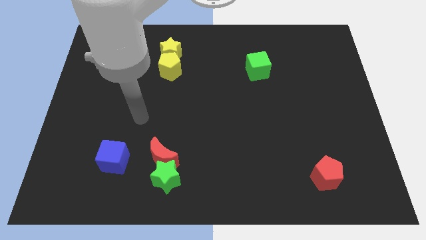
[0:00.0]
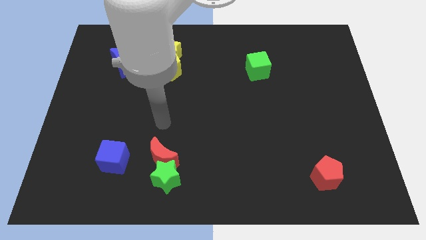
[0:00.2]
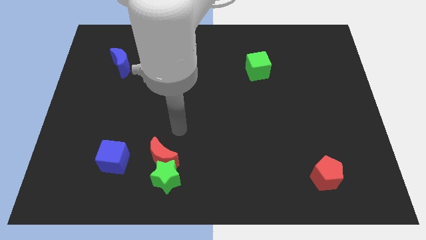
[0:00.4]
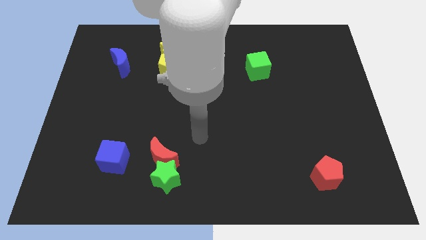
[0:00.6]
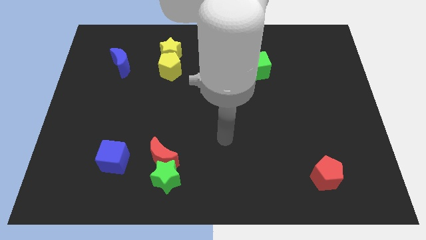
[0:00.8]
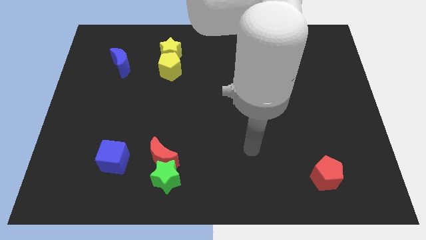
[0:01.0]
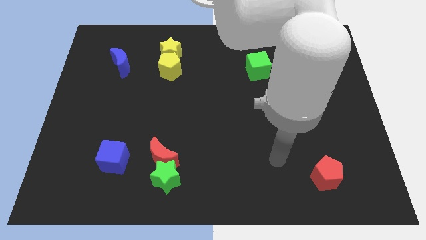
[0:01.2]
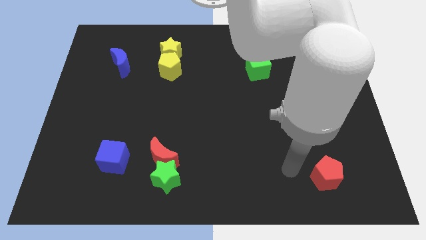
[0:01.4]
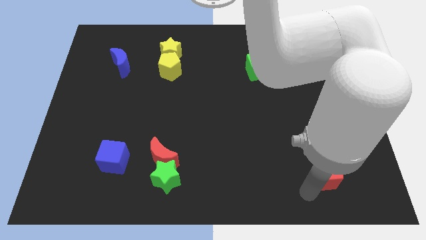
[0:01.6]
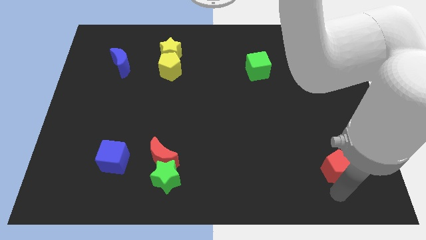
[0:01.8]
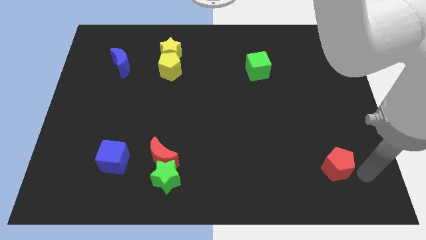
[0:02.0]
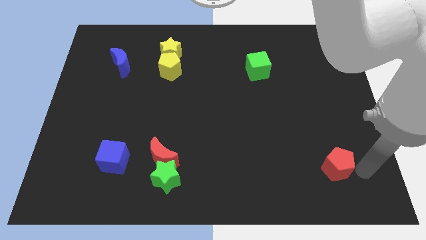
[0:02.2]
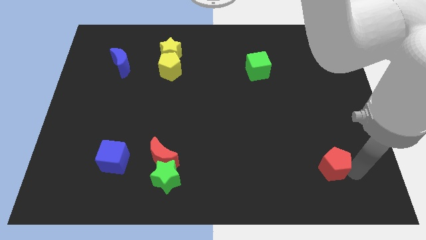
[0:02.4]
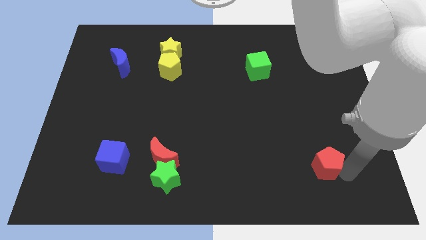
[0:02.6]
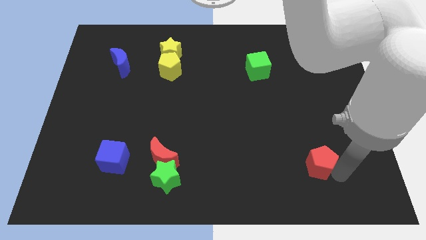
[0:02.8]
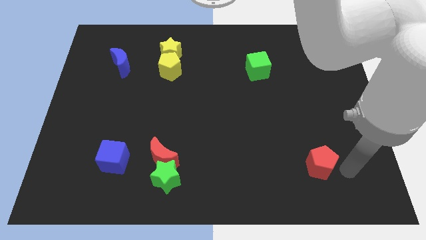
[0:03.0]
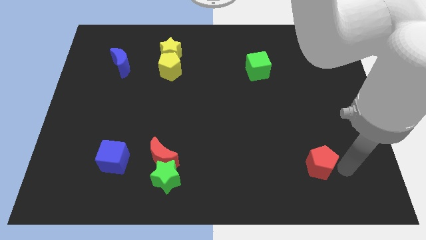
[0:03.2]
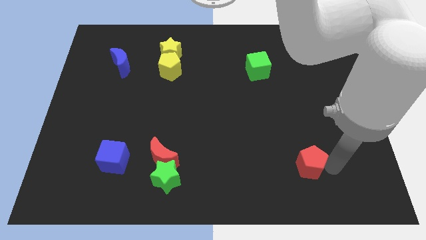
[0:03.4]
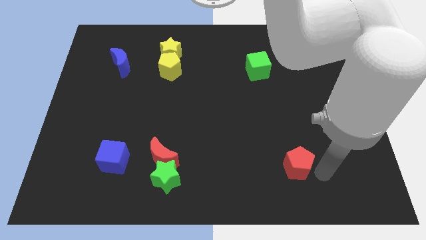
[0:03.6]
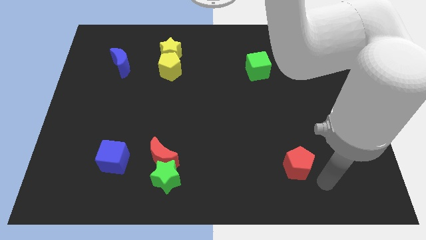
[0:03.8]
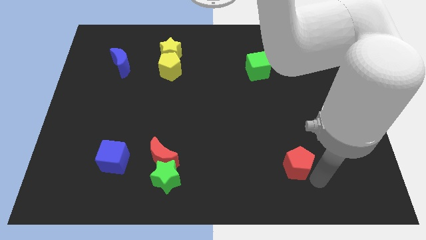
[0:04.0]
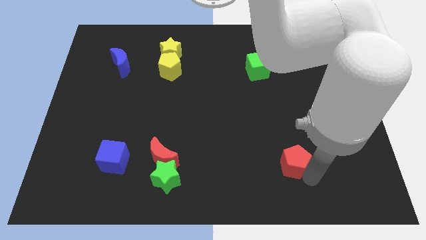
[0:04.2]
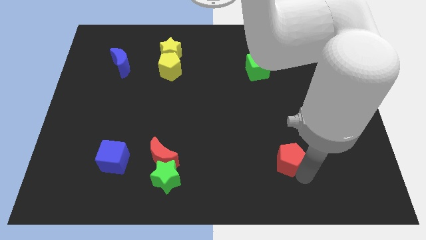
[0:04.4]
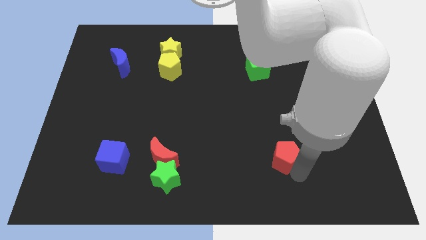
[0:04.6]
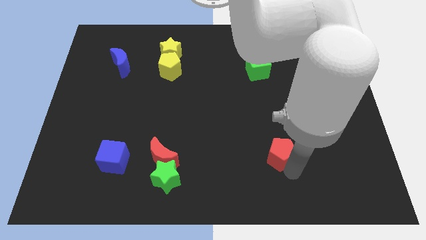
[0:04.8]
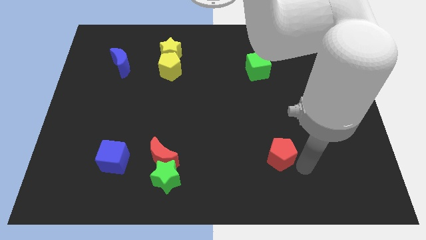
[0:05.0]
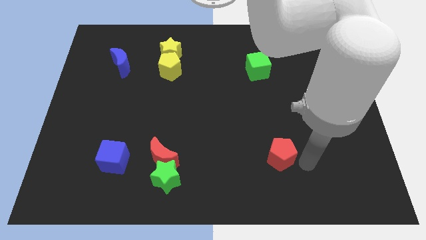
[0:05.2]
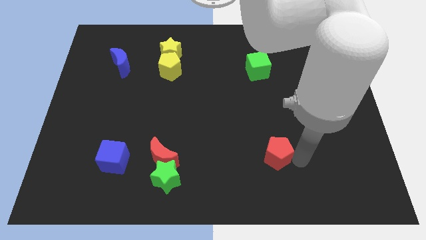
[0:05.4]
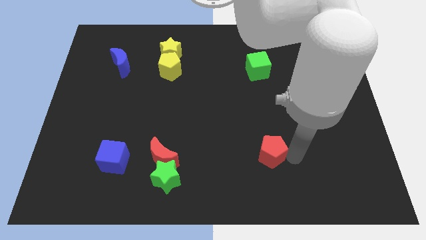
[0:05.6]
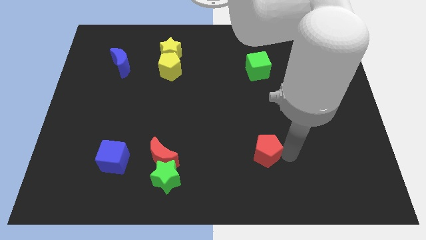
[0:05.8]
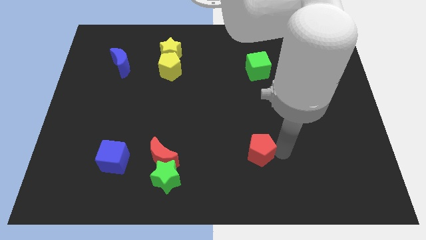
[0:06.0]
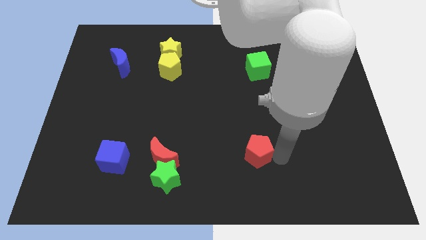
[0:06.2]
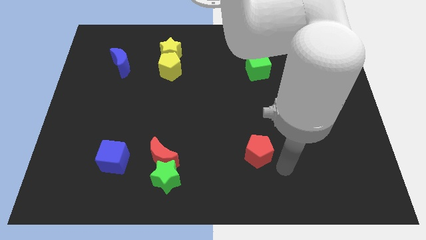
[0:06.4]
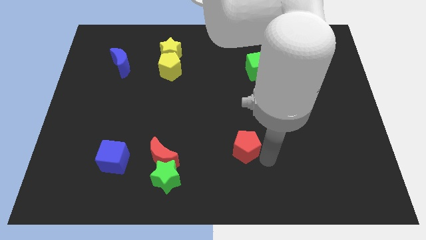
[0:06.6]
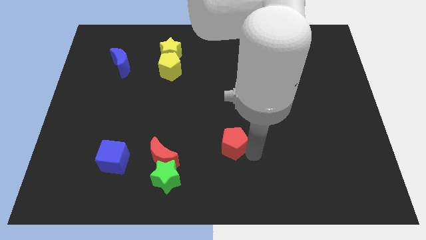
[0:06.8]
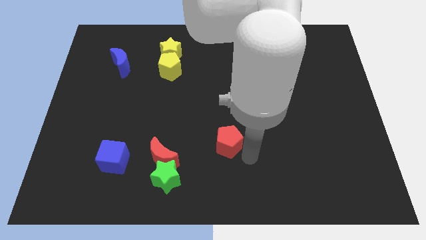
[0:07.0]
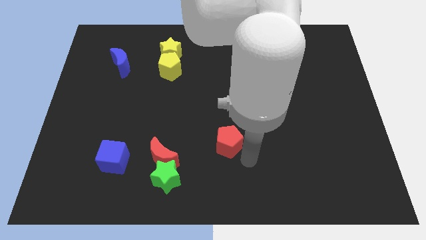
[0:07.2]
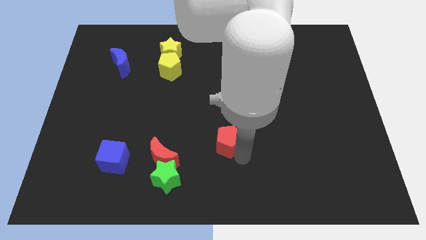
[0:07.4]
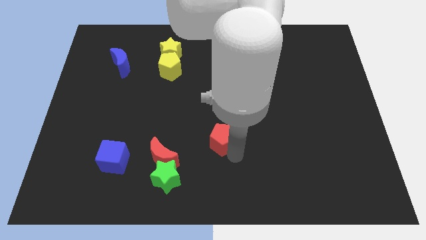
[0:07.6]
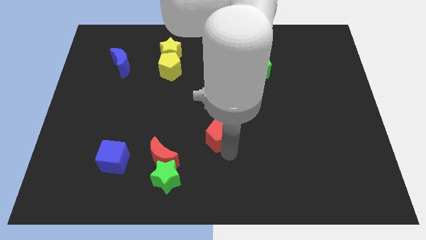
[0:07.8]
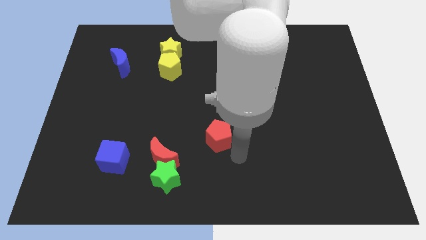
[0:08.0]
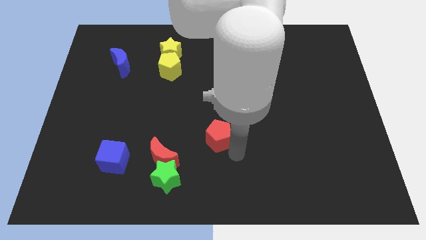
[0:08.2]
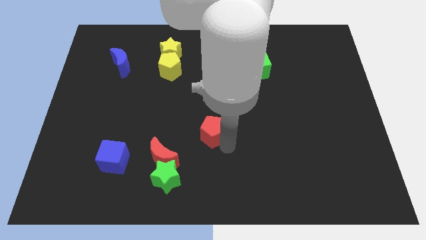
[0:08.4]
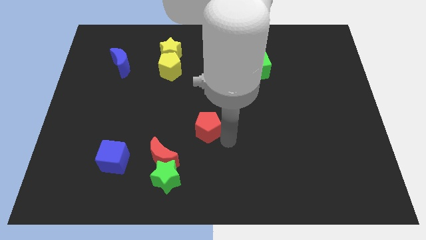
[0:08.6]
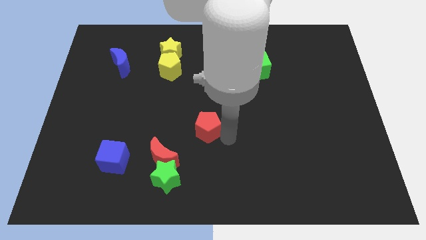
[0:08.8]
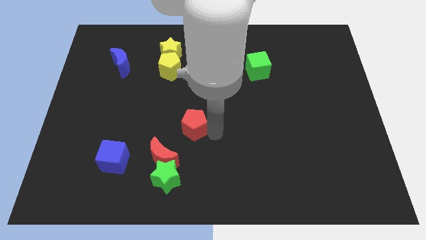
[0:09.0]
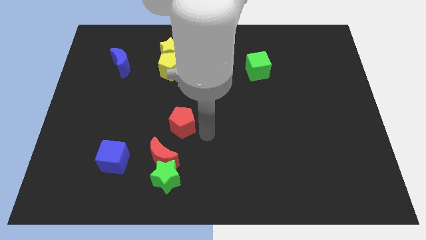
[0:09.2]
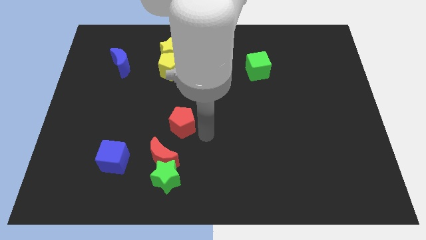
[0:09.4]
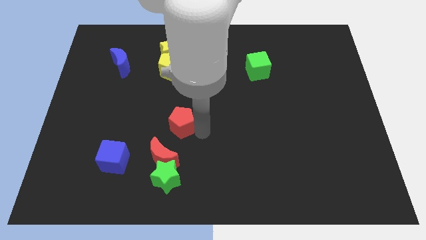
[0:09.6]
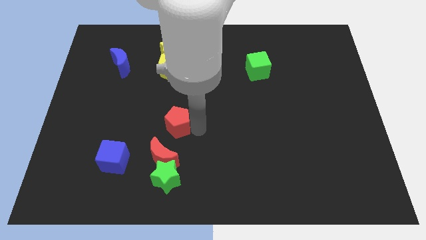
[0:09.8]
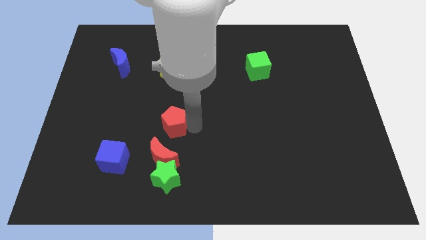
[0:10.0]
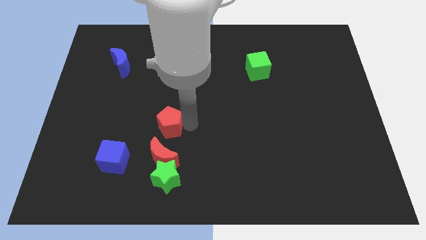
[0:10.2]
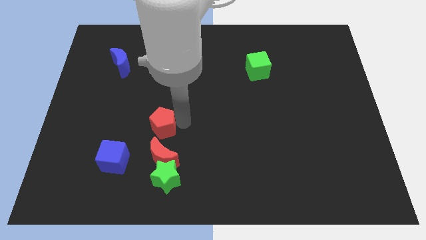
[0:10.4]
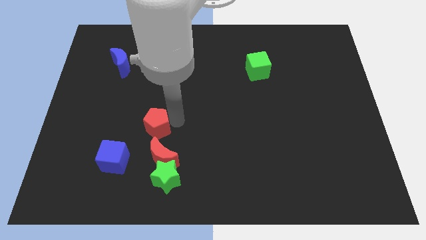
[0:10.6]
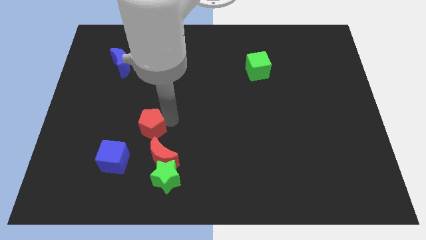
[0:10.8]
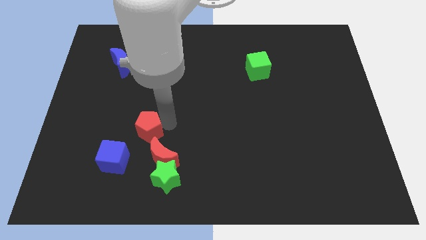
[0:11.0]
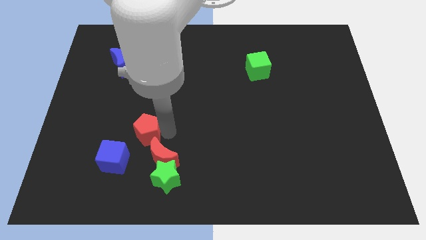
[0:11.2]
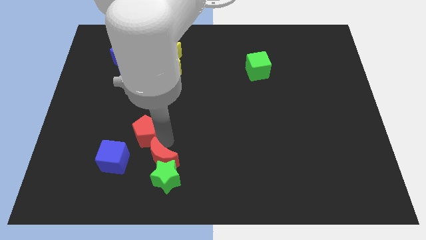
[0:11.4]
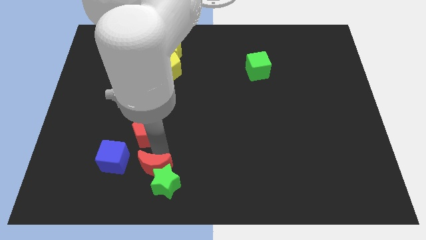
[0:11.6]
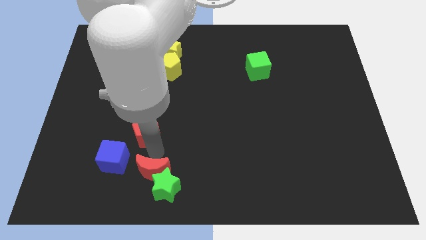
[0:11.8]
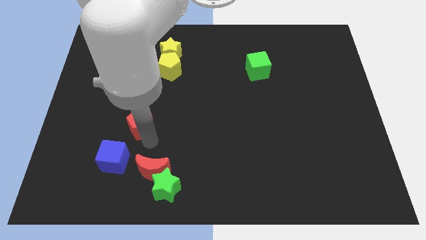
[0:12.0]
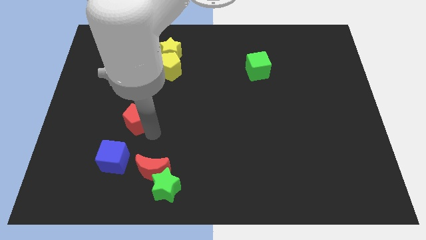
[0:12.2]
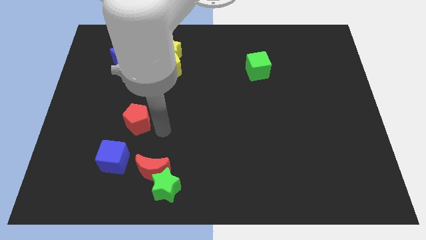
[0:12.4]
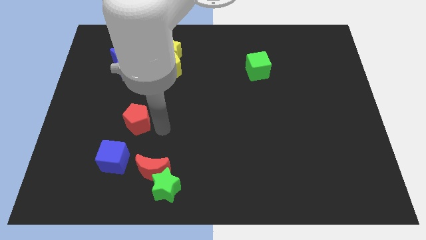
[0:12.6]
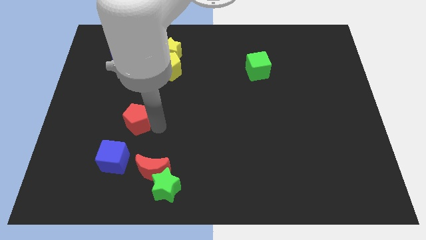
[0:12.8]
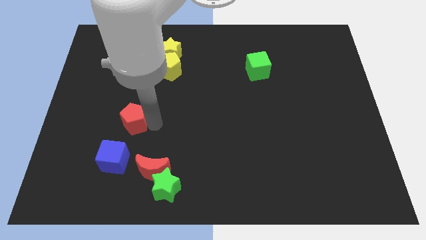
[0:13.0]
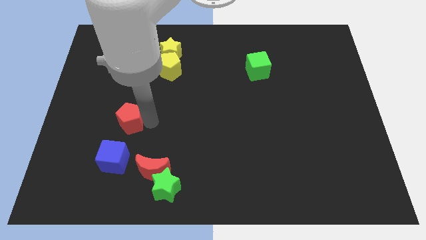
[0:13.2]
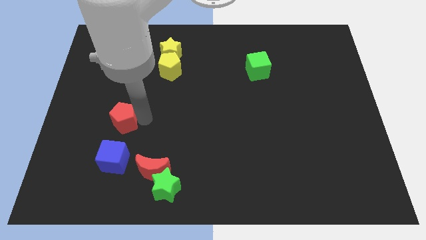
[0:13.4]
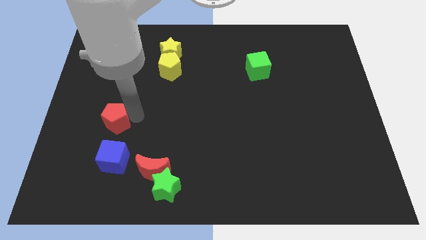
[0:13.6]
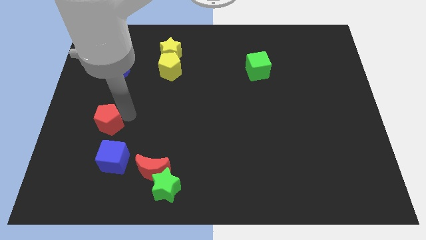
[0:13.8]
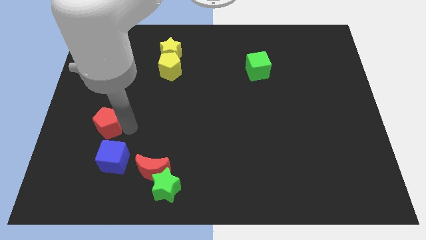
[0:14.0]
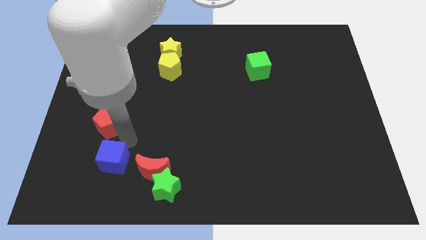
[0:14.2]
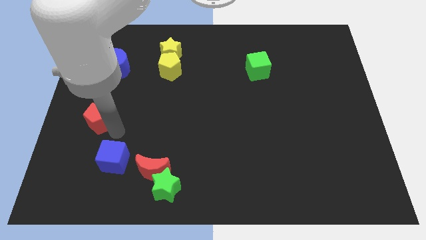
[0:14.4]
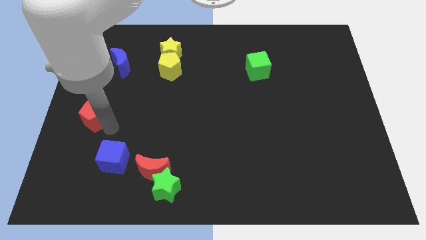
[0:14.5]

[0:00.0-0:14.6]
move the red pentagon to the center left
